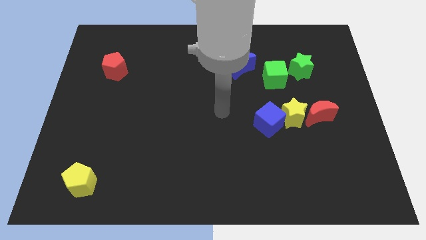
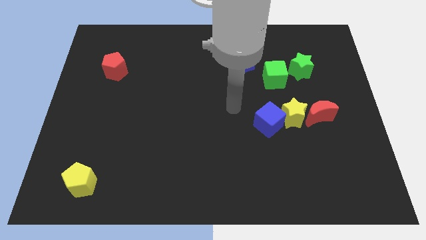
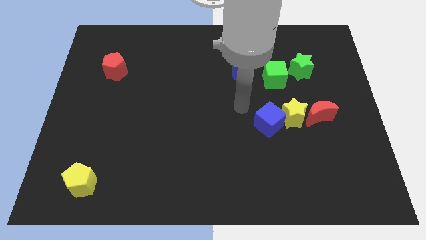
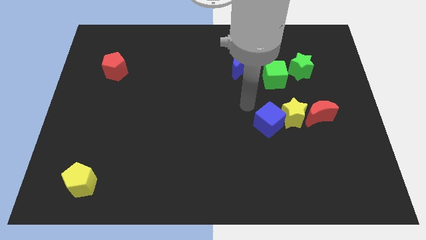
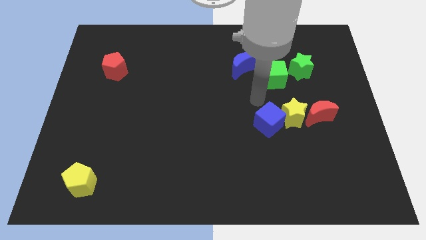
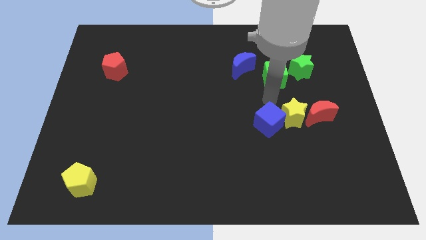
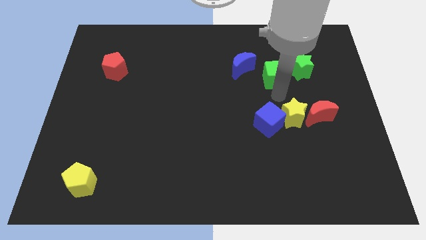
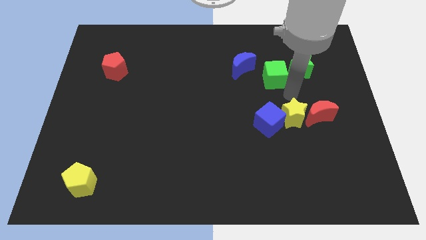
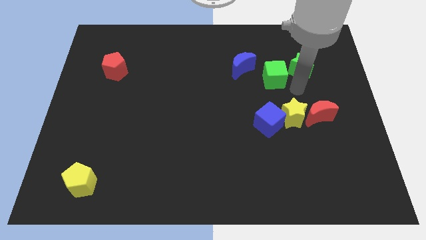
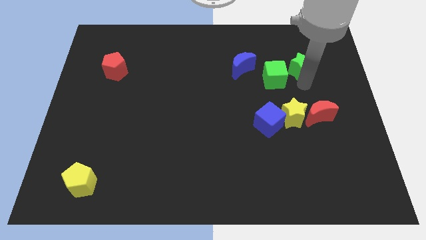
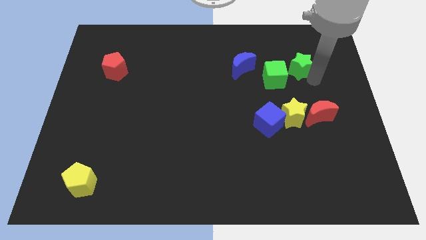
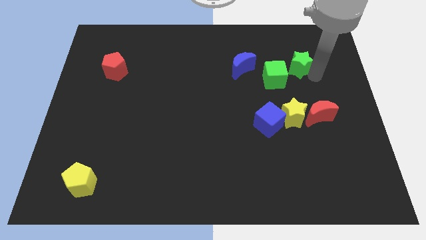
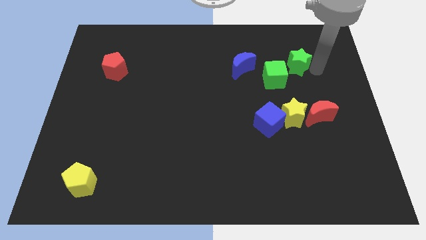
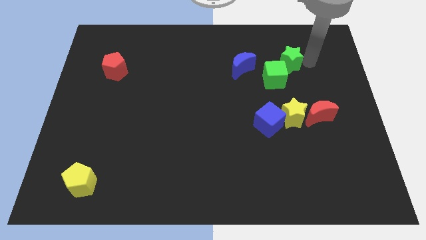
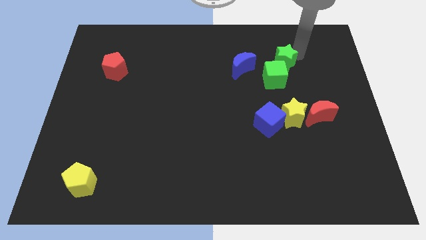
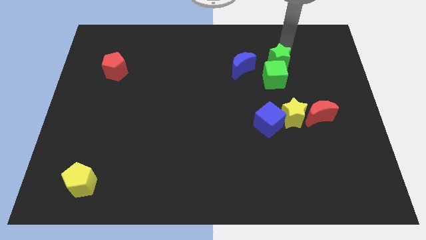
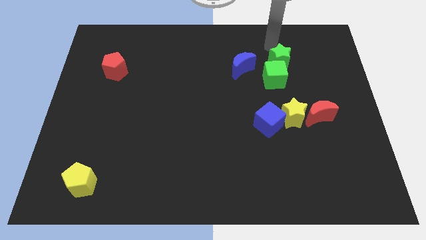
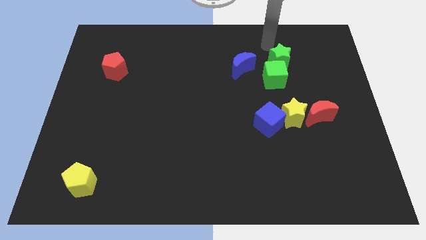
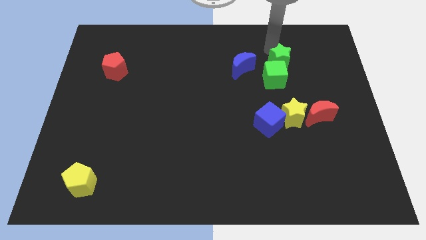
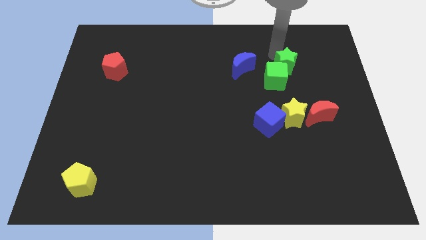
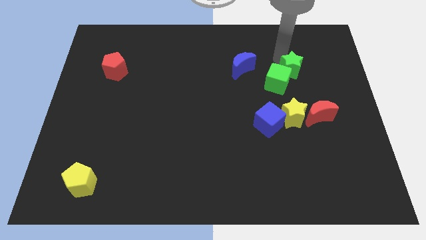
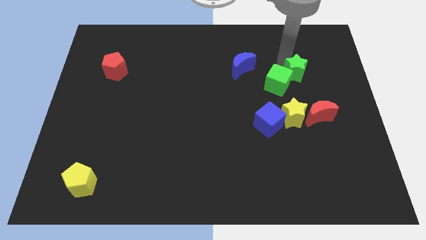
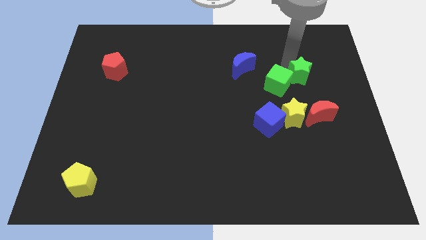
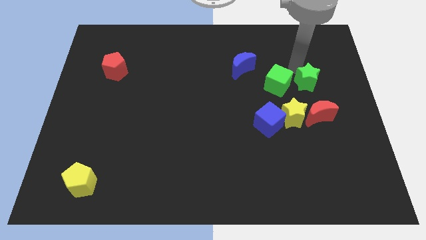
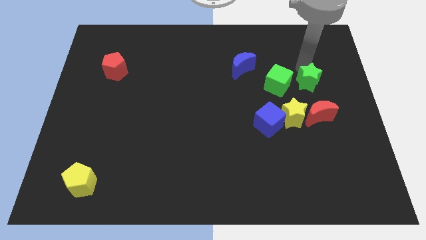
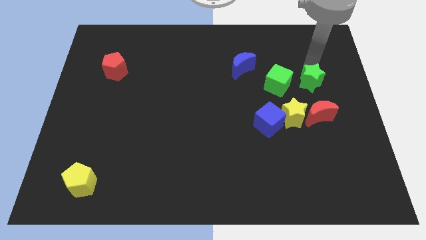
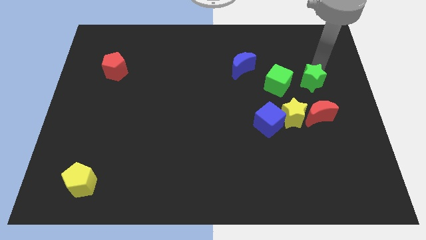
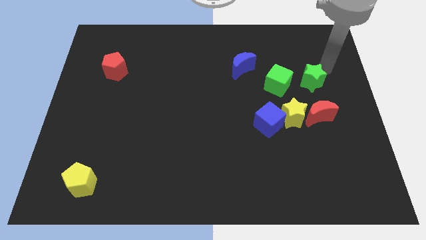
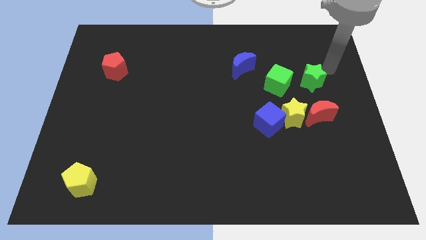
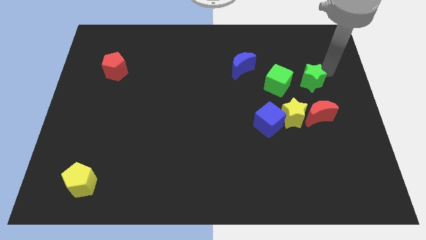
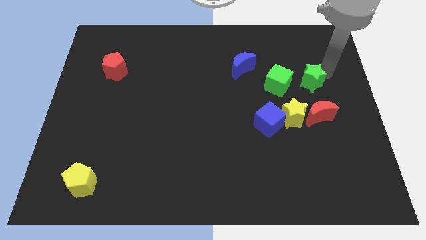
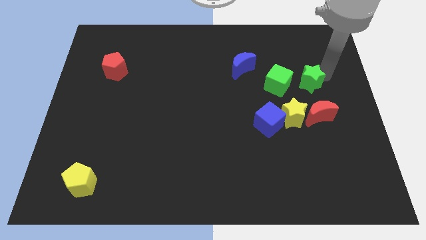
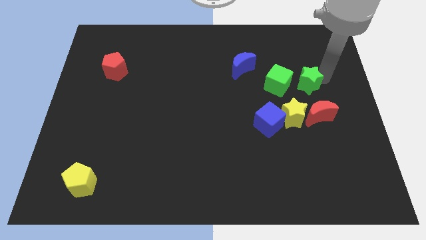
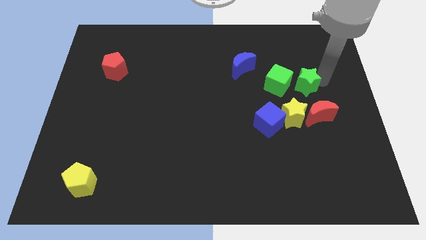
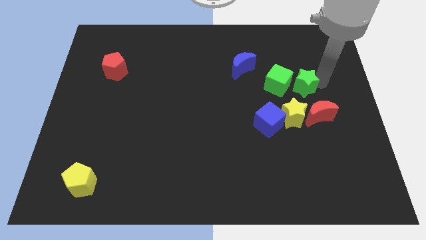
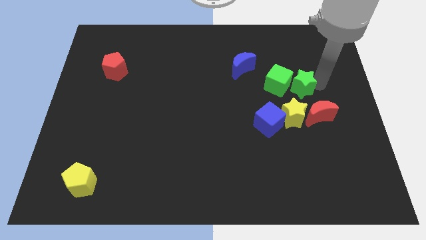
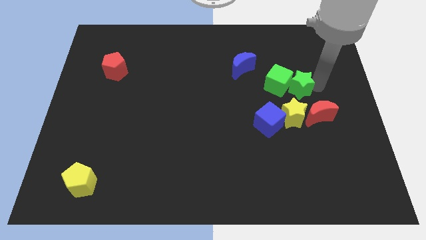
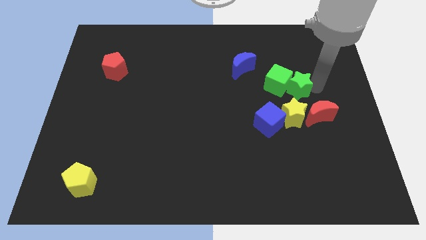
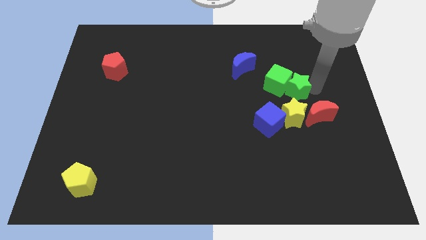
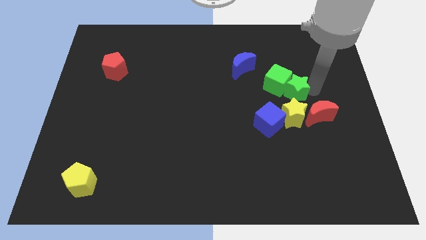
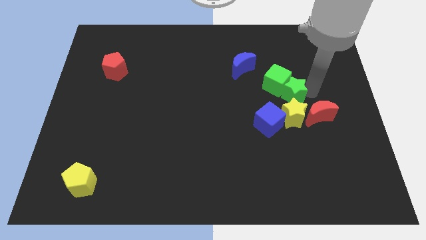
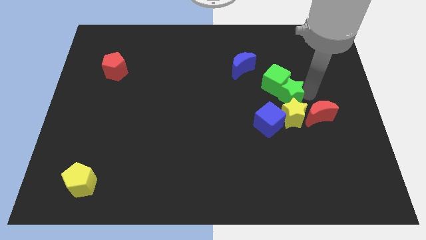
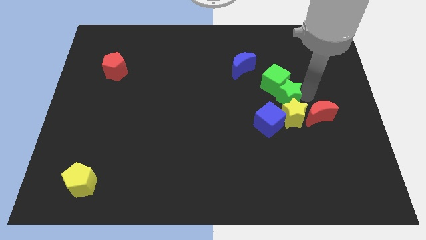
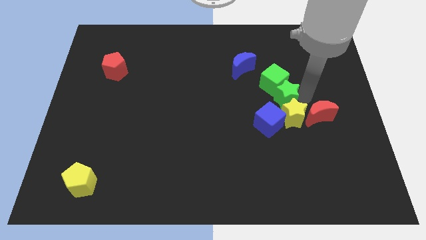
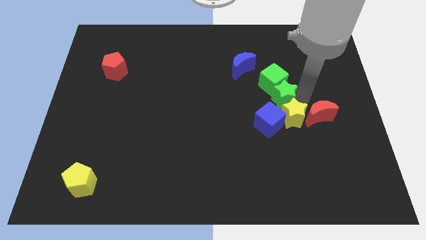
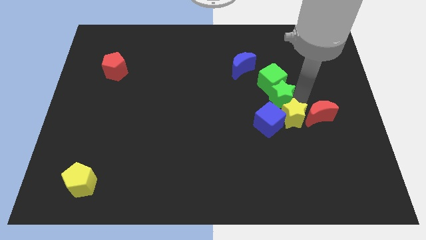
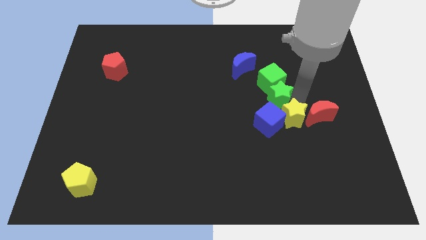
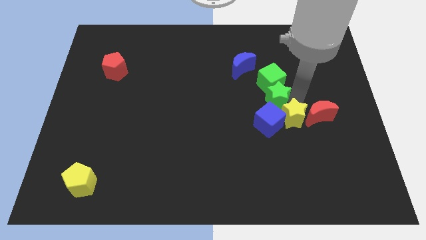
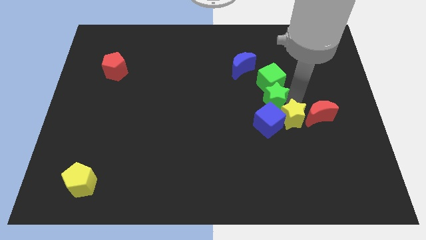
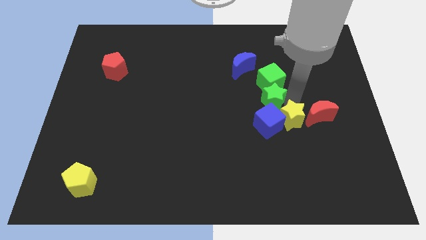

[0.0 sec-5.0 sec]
put the green star to the left of the yellow star

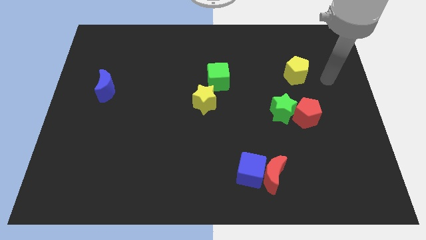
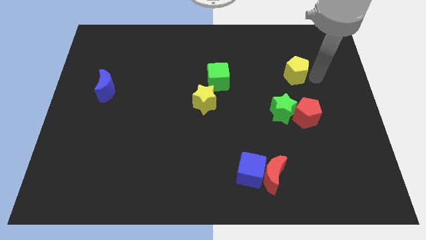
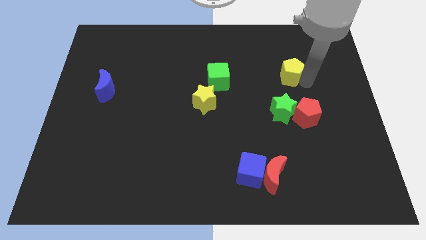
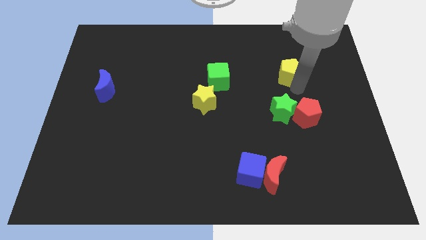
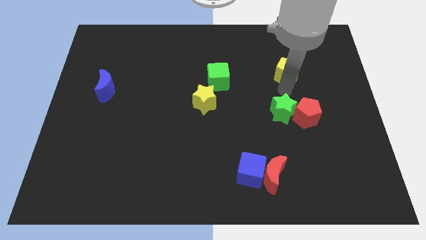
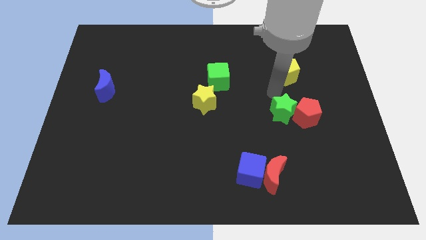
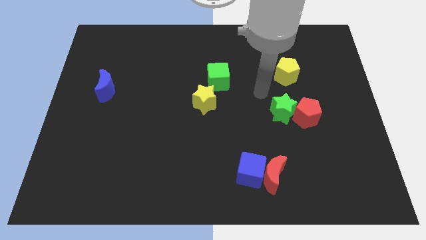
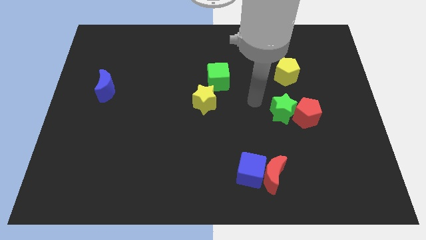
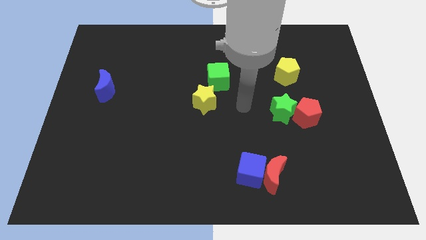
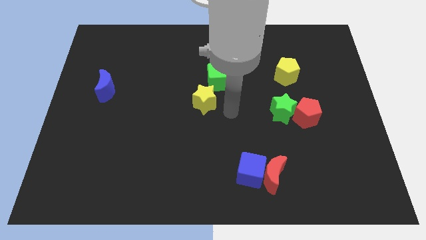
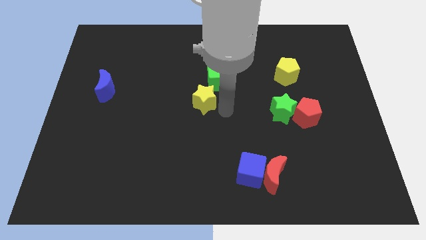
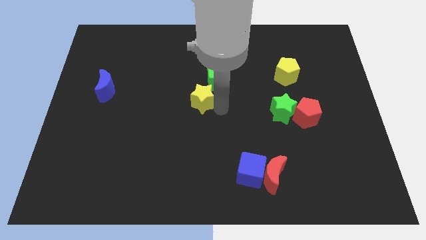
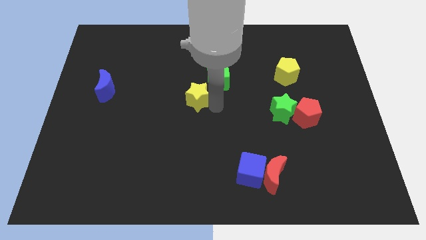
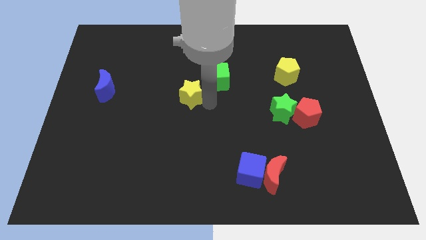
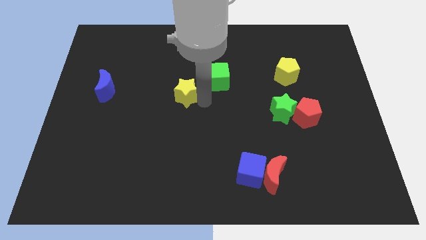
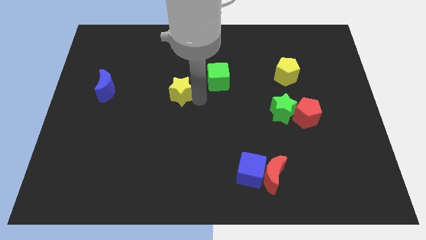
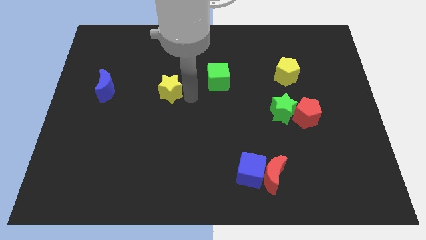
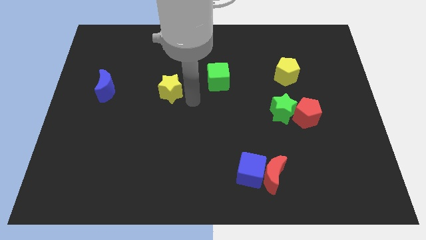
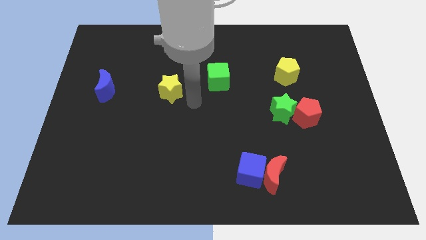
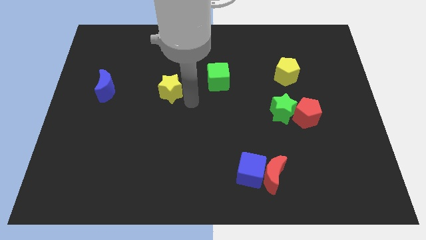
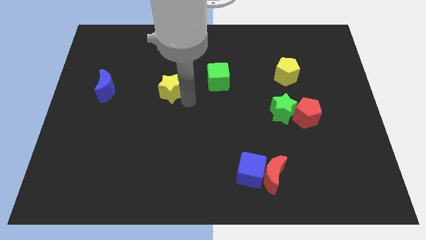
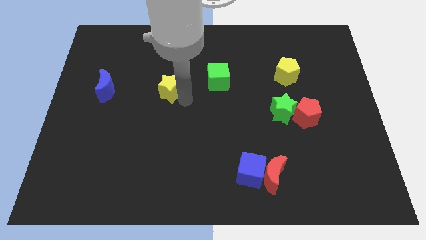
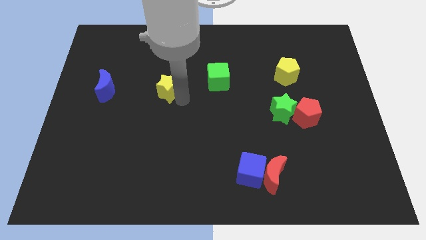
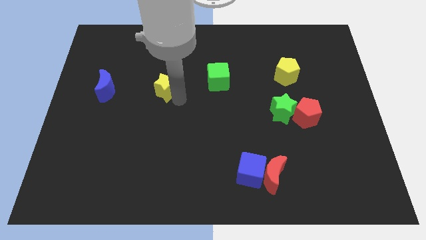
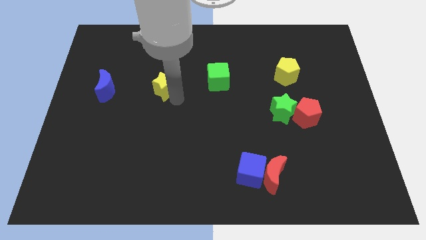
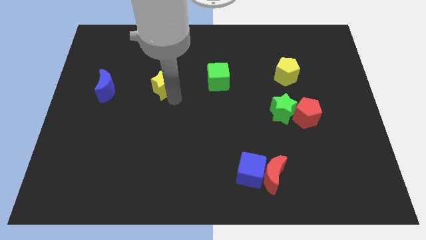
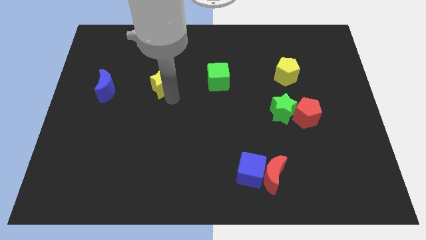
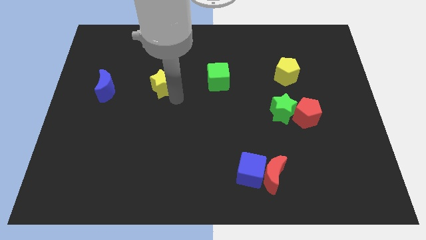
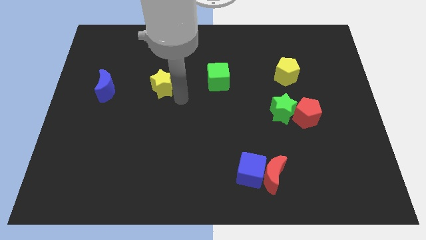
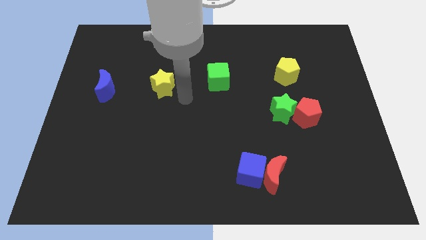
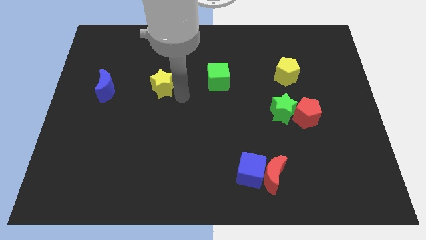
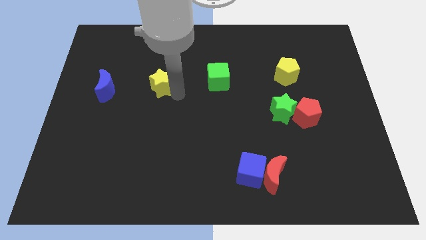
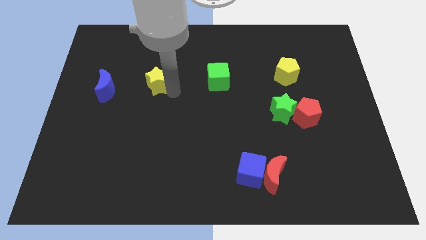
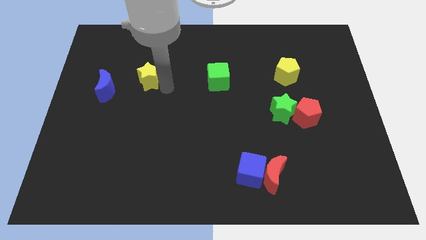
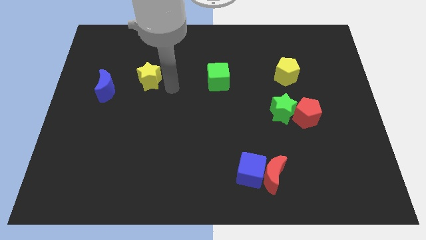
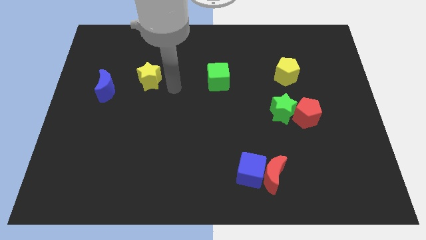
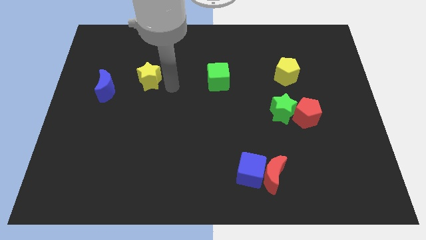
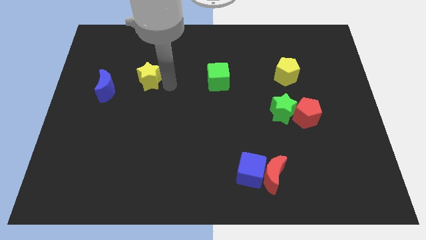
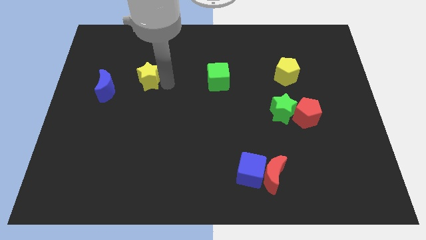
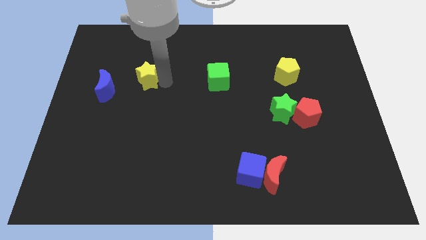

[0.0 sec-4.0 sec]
slide the yellow star to the top right side of the blue moon
